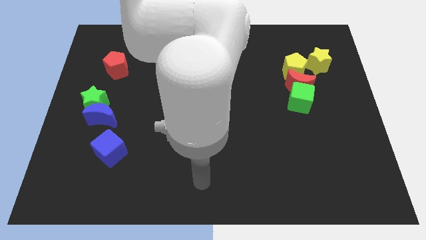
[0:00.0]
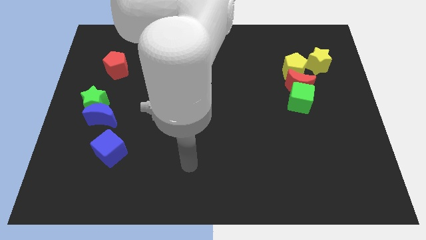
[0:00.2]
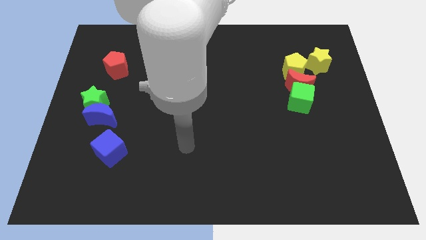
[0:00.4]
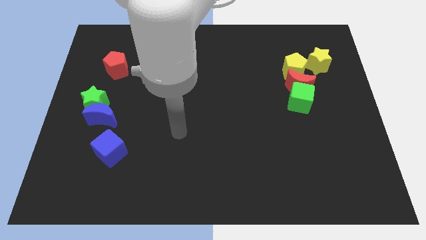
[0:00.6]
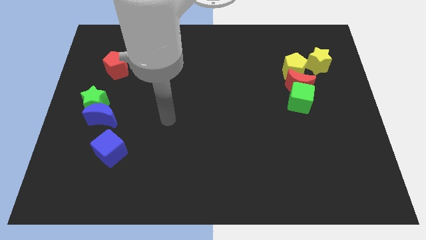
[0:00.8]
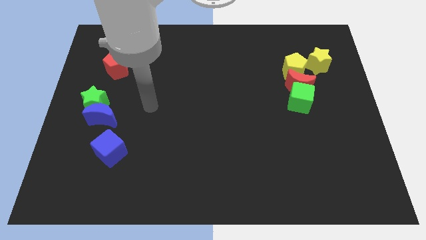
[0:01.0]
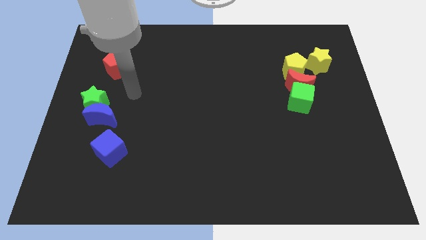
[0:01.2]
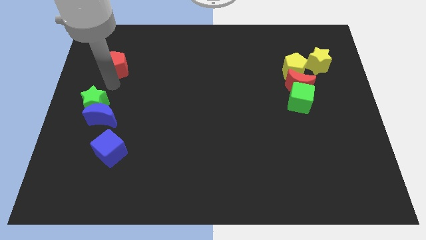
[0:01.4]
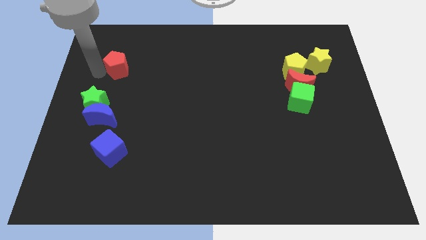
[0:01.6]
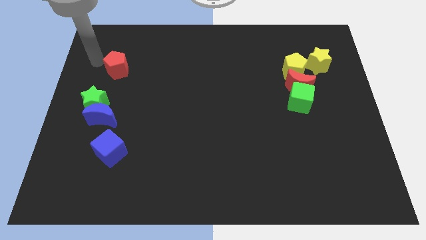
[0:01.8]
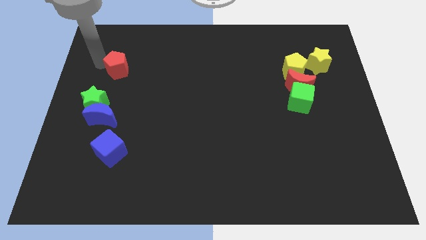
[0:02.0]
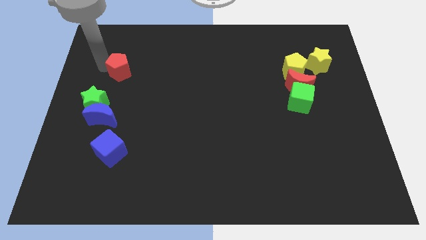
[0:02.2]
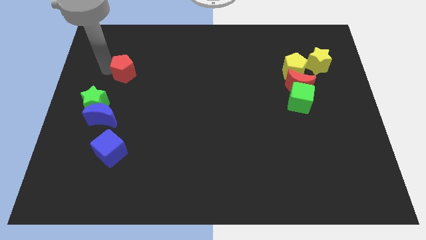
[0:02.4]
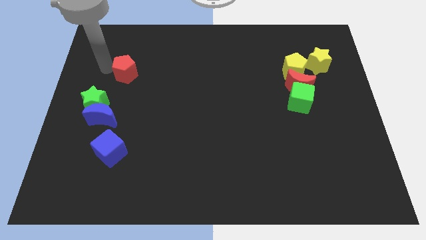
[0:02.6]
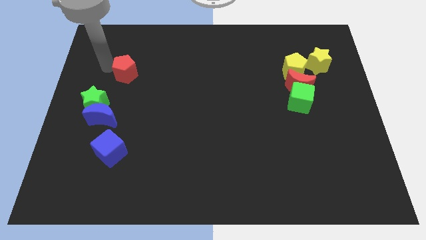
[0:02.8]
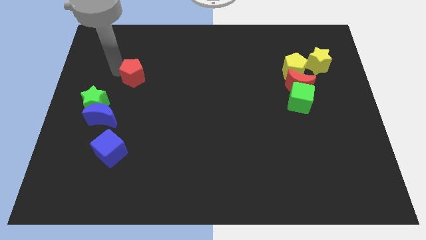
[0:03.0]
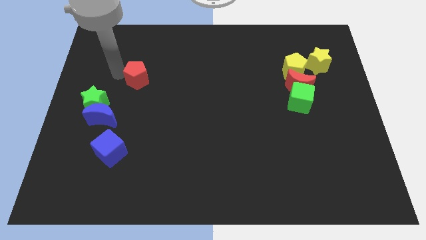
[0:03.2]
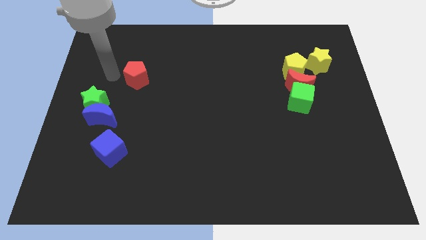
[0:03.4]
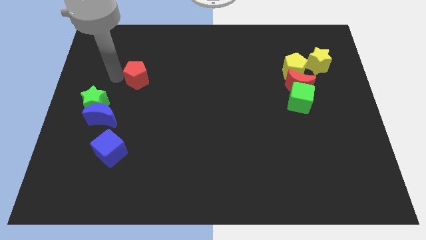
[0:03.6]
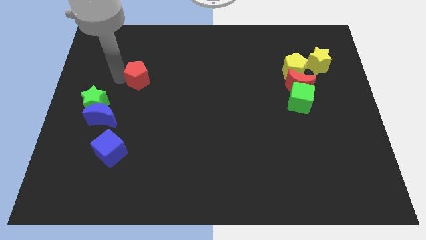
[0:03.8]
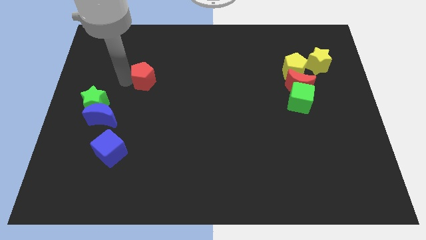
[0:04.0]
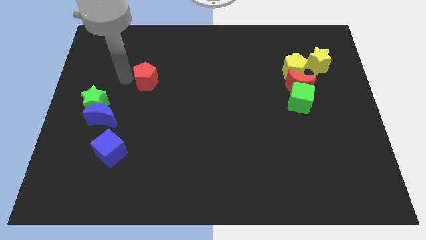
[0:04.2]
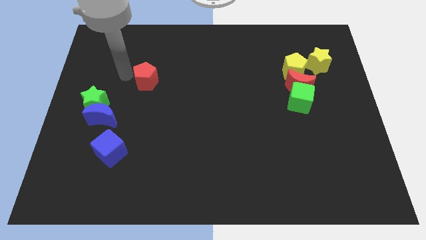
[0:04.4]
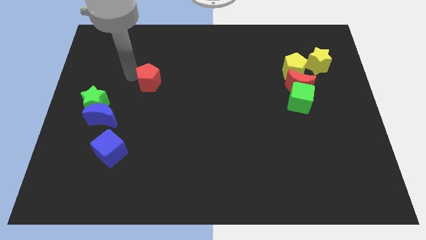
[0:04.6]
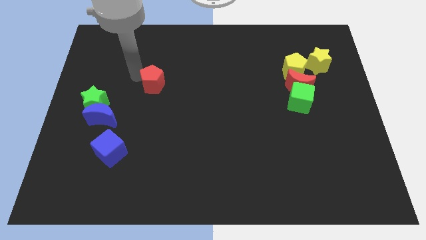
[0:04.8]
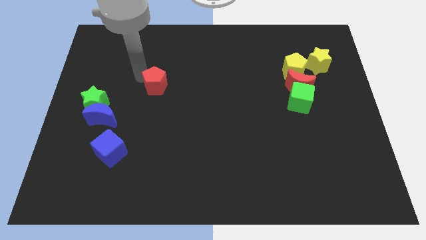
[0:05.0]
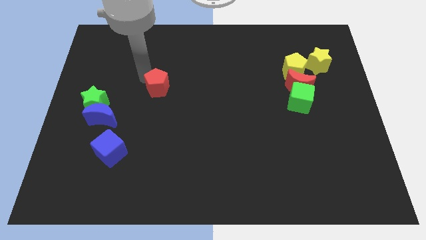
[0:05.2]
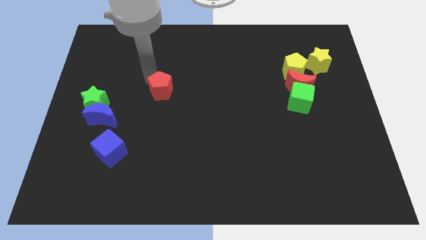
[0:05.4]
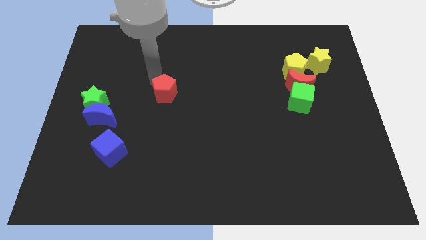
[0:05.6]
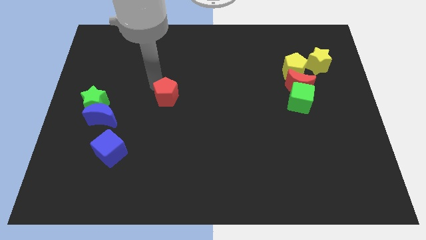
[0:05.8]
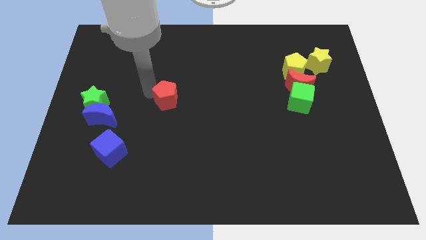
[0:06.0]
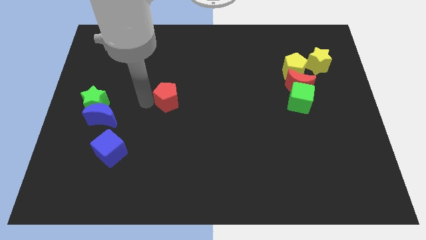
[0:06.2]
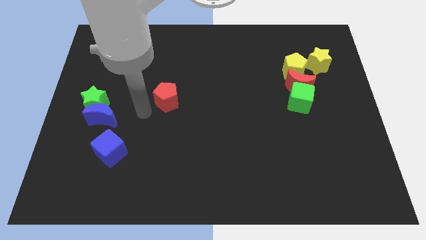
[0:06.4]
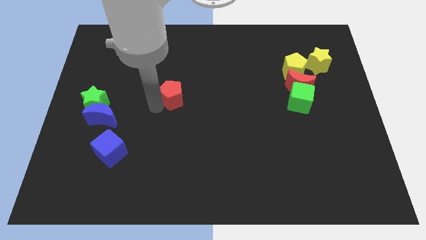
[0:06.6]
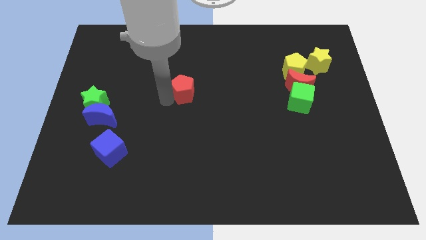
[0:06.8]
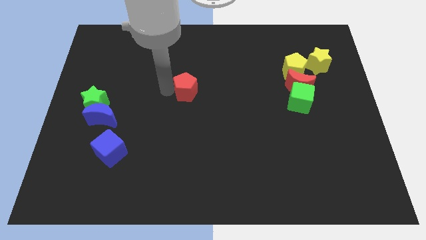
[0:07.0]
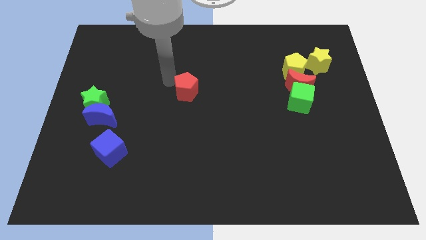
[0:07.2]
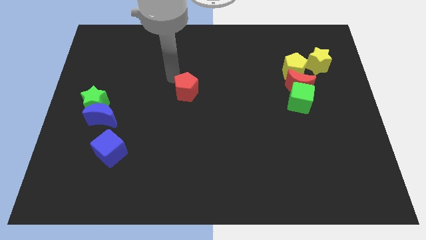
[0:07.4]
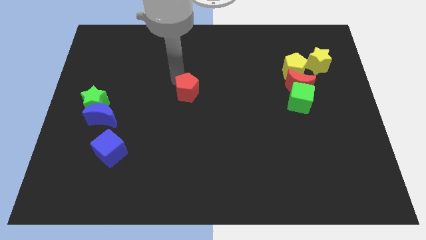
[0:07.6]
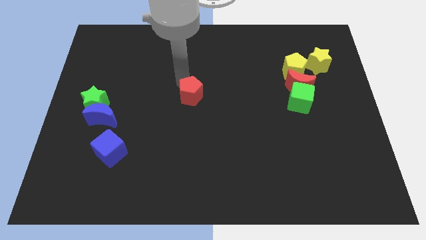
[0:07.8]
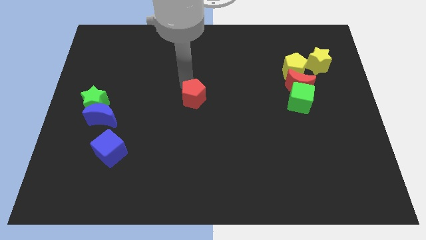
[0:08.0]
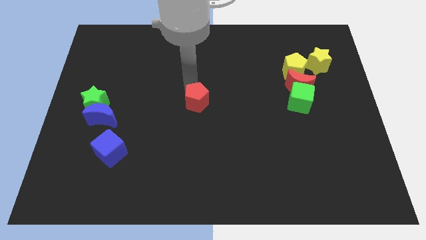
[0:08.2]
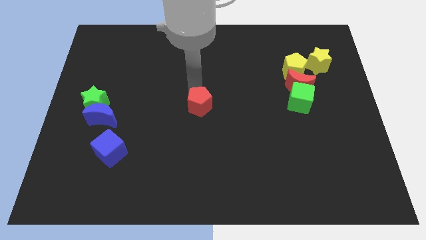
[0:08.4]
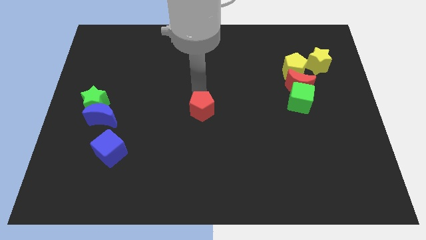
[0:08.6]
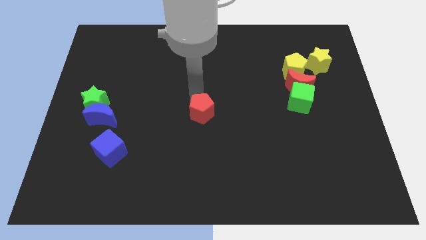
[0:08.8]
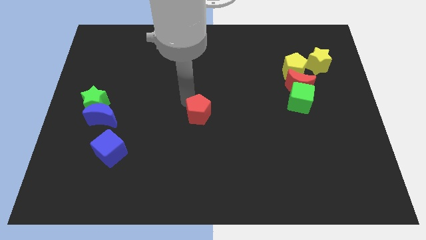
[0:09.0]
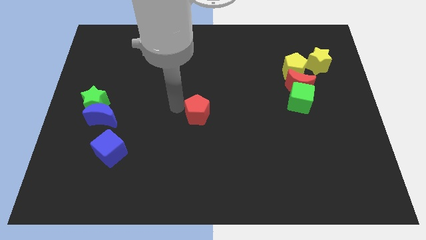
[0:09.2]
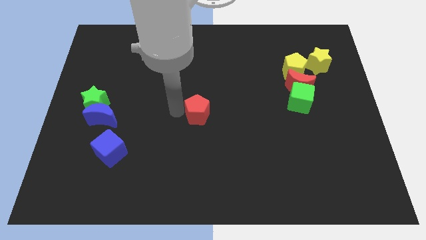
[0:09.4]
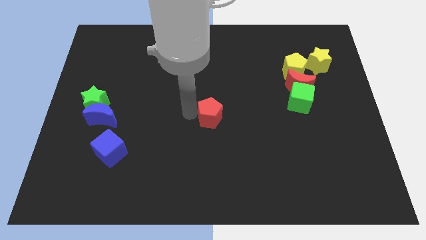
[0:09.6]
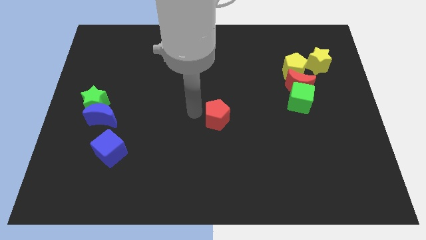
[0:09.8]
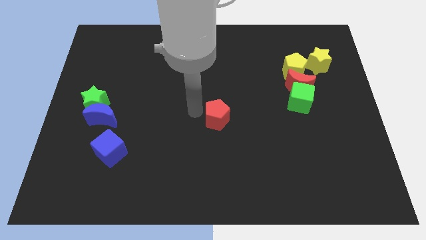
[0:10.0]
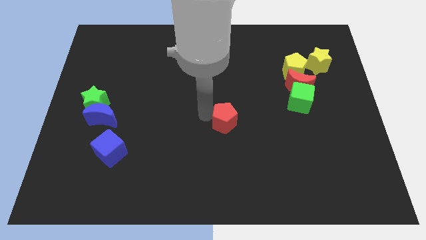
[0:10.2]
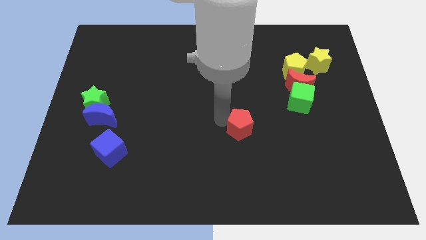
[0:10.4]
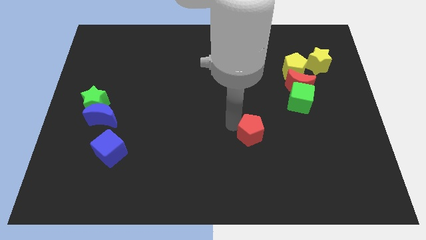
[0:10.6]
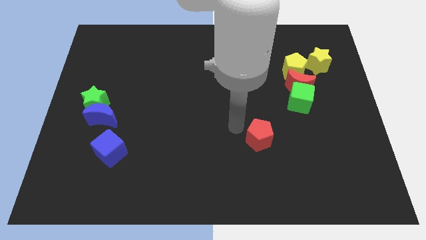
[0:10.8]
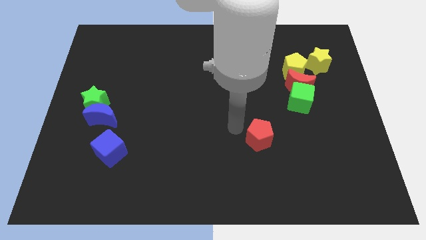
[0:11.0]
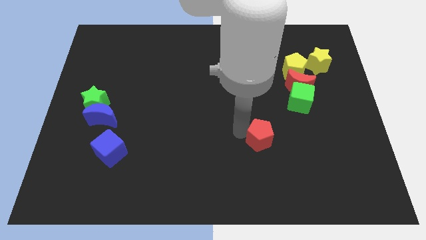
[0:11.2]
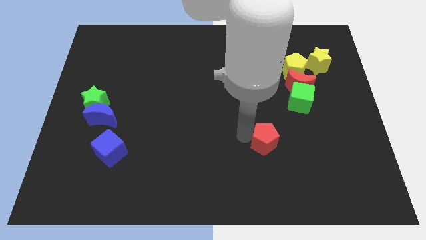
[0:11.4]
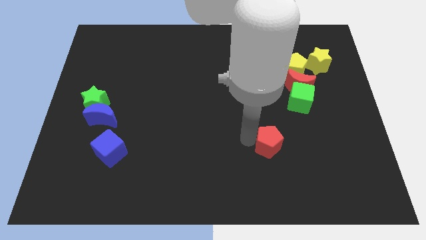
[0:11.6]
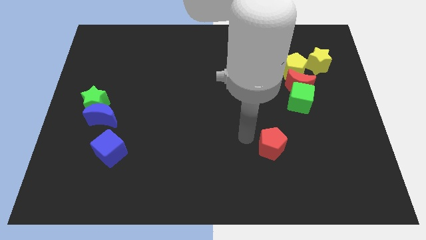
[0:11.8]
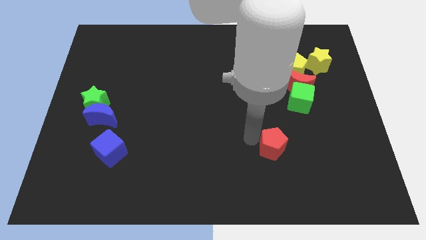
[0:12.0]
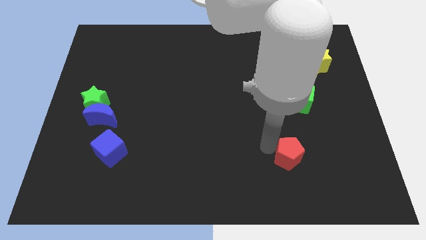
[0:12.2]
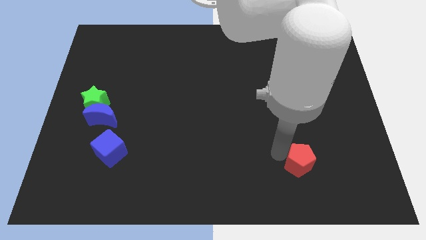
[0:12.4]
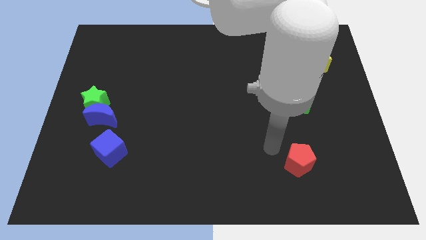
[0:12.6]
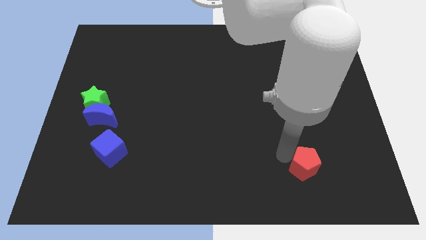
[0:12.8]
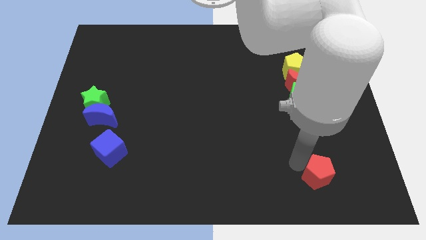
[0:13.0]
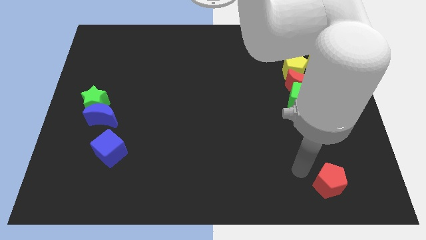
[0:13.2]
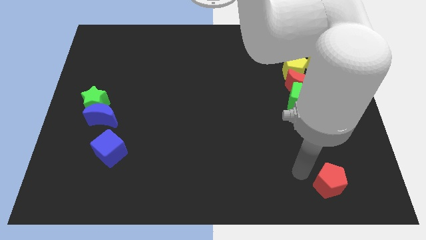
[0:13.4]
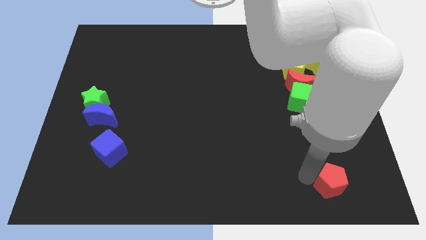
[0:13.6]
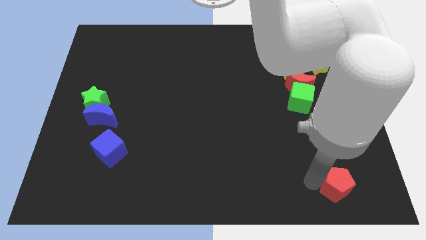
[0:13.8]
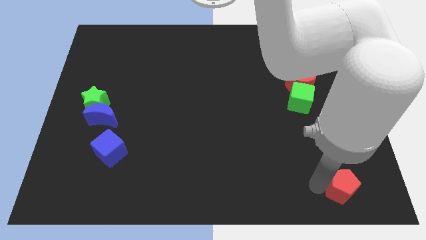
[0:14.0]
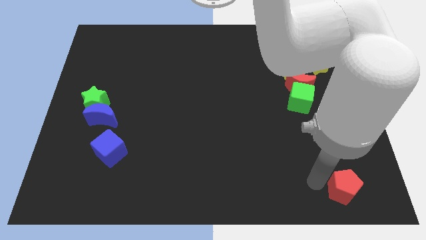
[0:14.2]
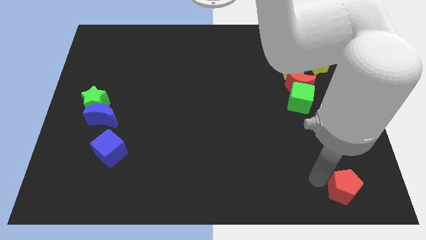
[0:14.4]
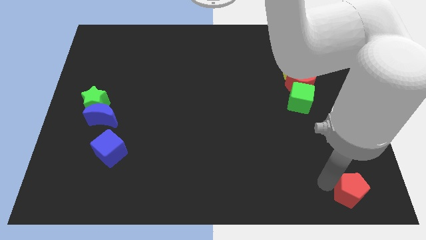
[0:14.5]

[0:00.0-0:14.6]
push the red pentagon to the bottom right corner
